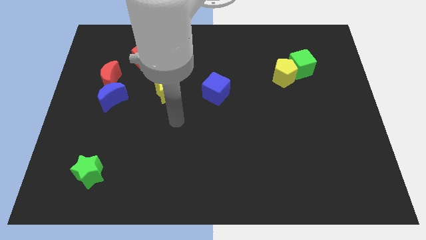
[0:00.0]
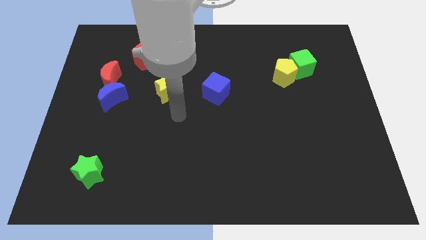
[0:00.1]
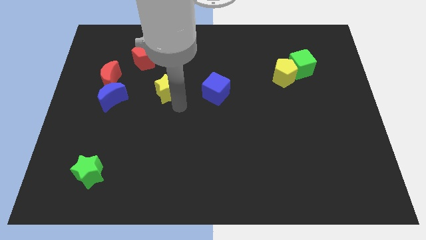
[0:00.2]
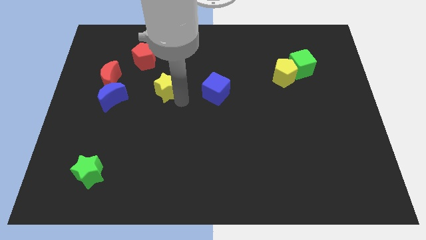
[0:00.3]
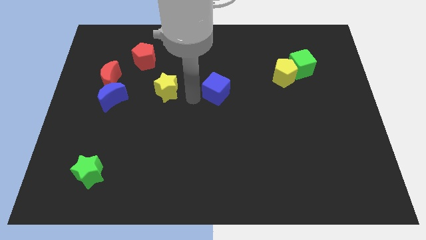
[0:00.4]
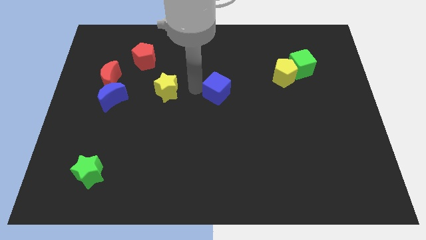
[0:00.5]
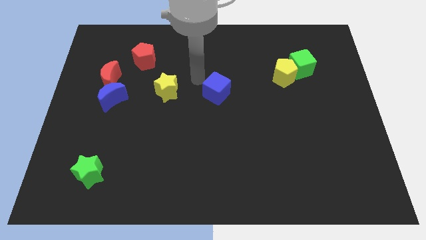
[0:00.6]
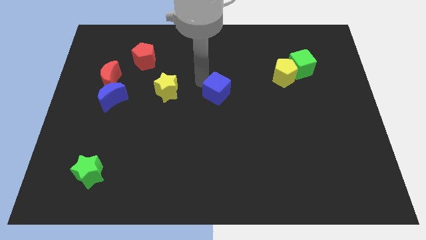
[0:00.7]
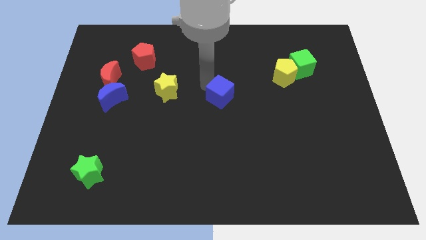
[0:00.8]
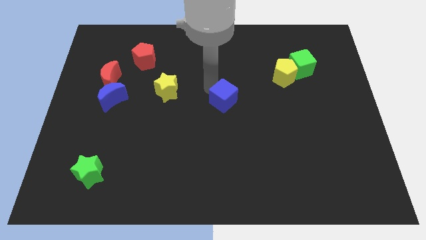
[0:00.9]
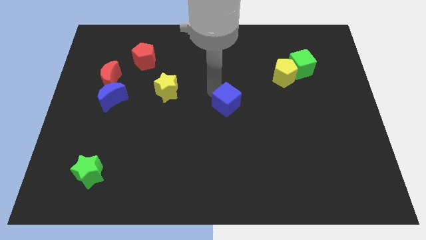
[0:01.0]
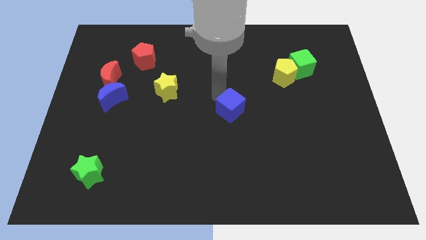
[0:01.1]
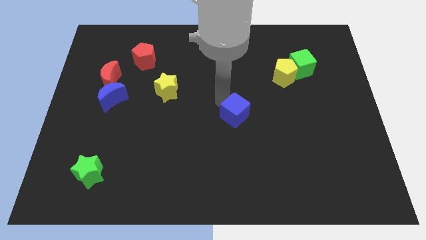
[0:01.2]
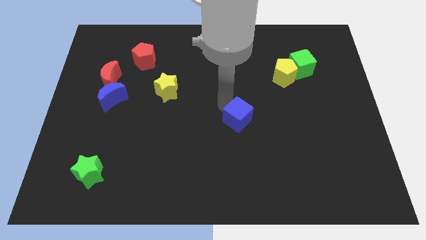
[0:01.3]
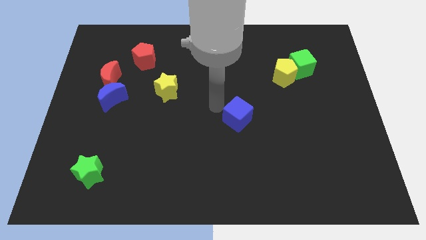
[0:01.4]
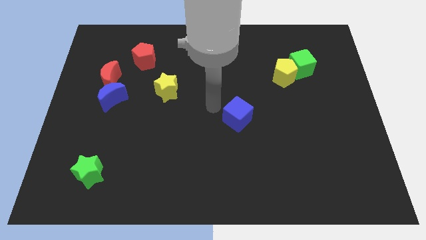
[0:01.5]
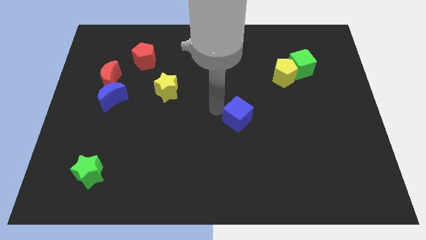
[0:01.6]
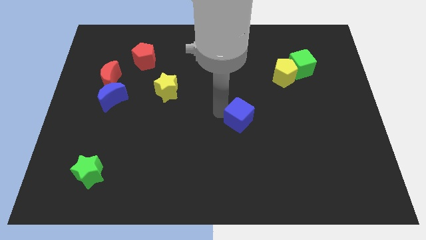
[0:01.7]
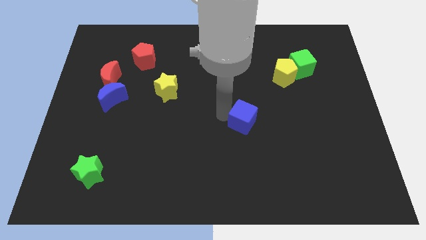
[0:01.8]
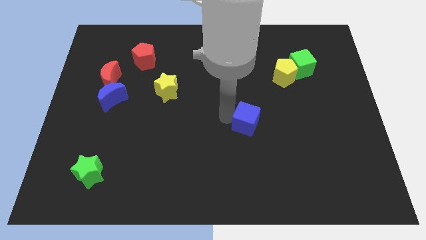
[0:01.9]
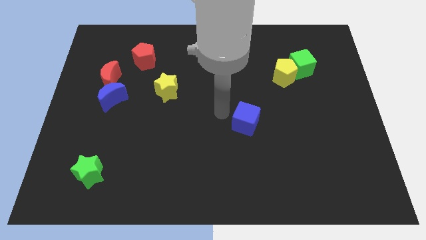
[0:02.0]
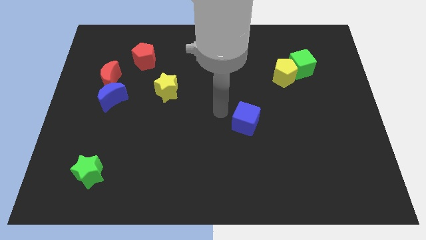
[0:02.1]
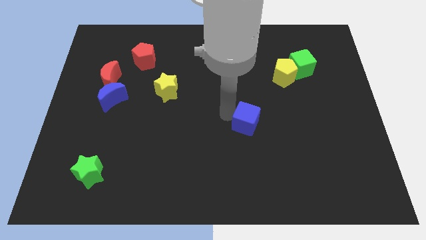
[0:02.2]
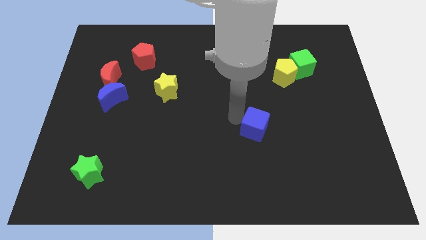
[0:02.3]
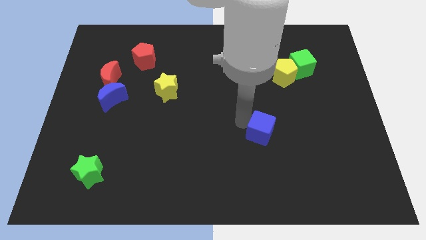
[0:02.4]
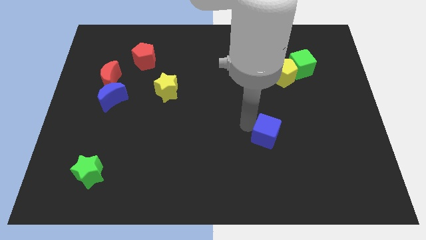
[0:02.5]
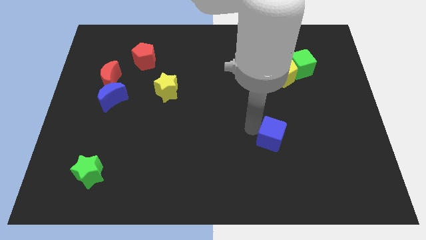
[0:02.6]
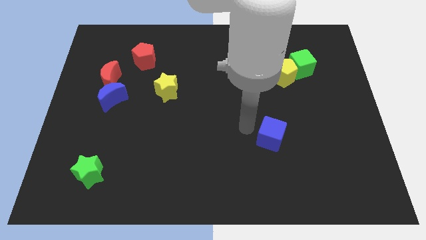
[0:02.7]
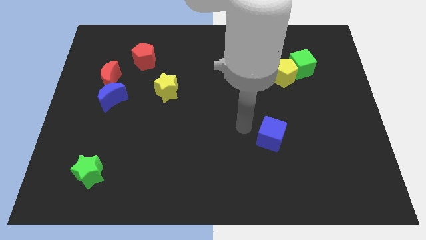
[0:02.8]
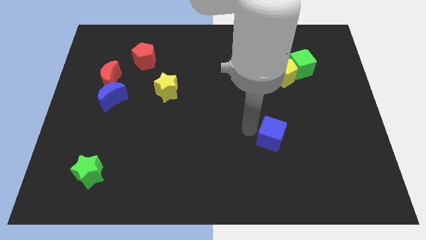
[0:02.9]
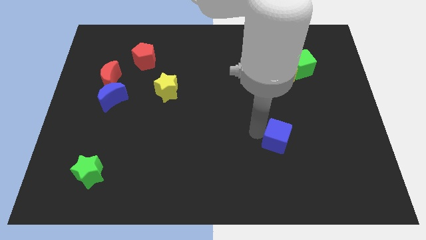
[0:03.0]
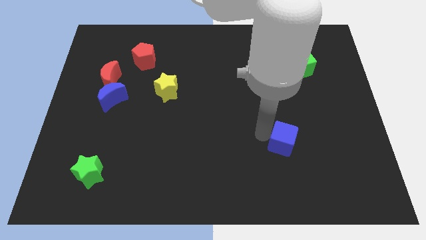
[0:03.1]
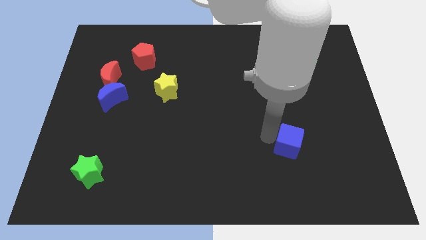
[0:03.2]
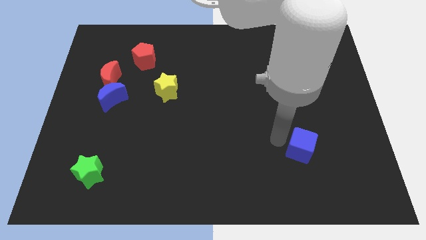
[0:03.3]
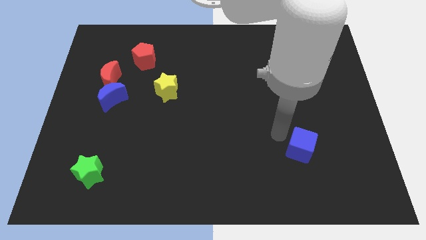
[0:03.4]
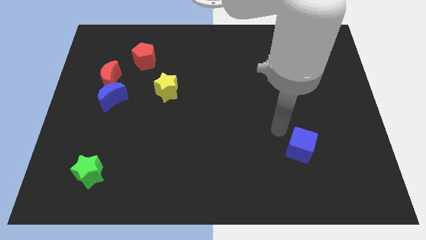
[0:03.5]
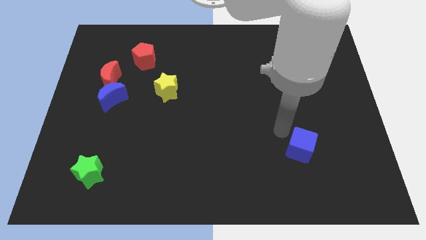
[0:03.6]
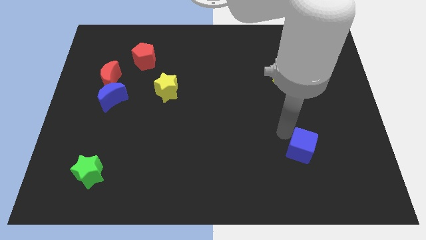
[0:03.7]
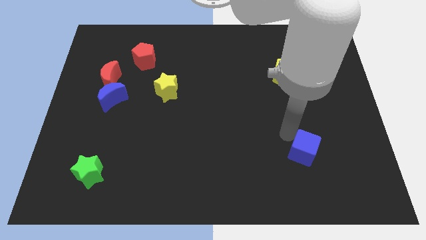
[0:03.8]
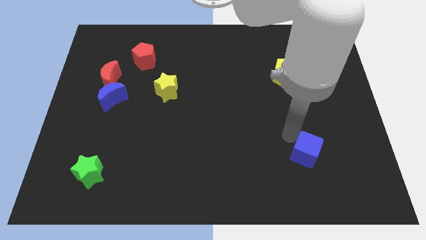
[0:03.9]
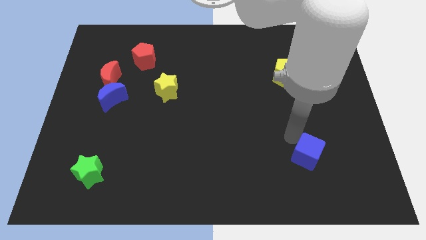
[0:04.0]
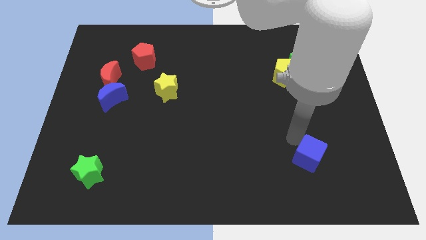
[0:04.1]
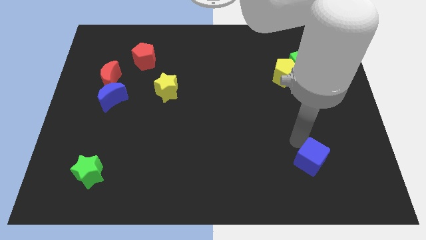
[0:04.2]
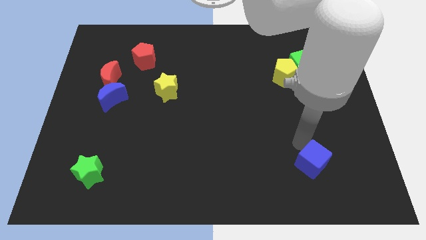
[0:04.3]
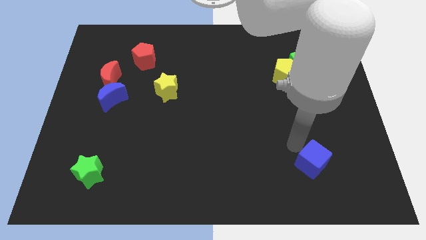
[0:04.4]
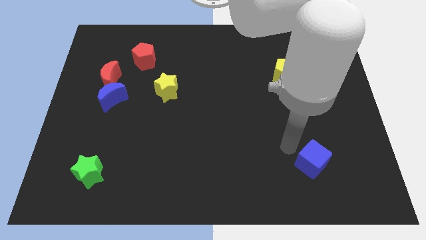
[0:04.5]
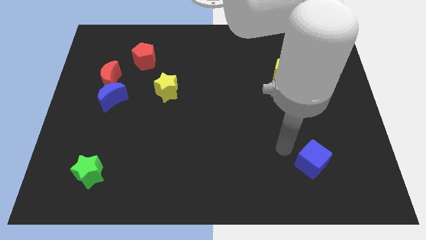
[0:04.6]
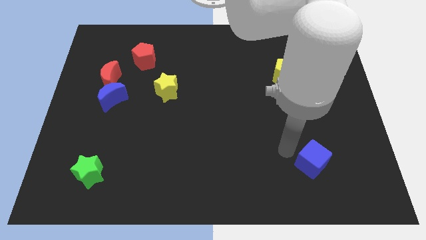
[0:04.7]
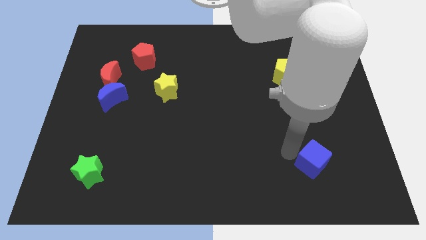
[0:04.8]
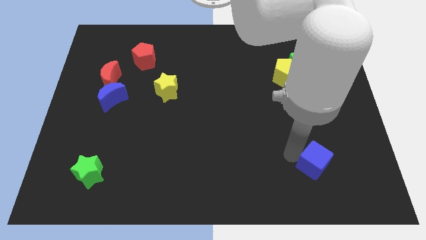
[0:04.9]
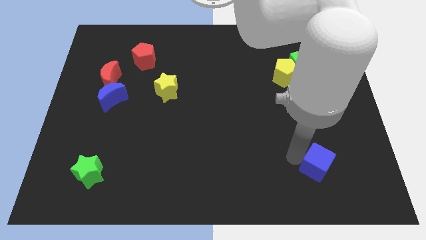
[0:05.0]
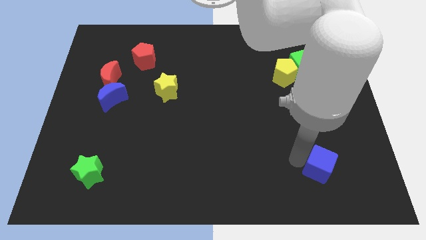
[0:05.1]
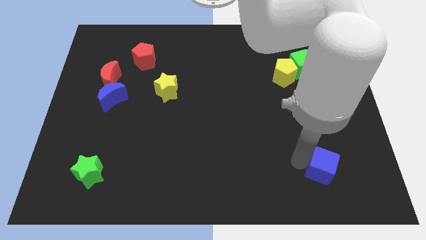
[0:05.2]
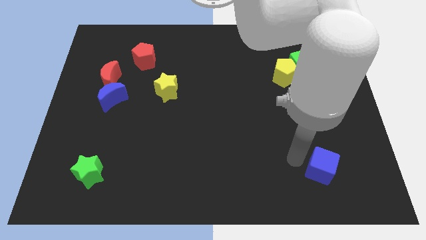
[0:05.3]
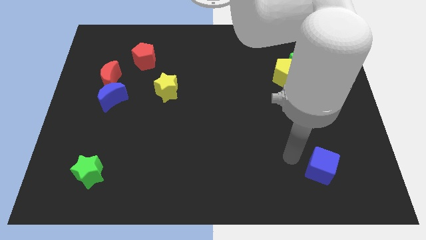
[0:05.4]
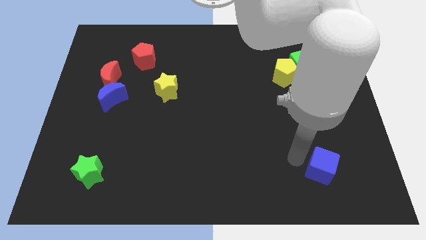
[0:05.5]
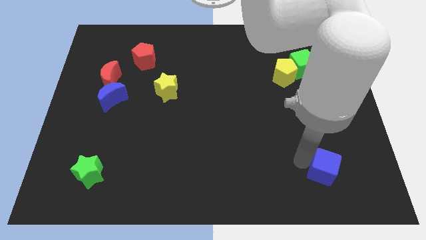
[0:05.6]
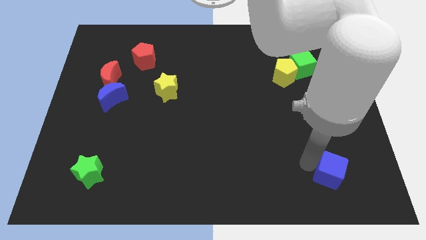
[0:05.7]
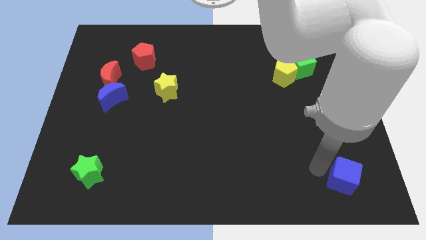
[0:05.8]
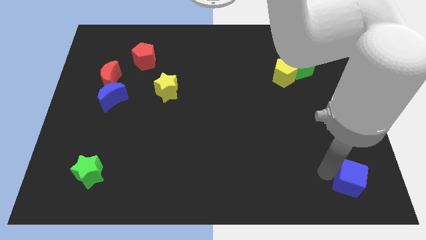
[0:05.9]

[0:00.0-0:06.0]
push the blue cube to the bottom right
